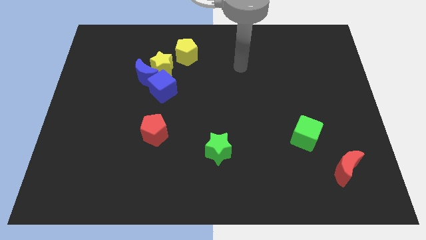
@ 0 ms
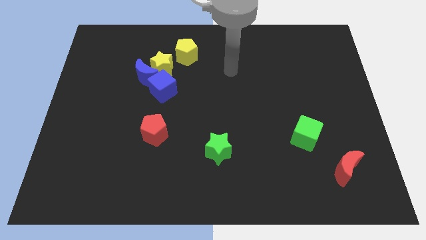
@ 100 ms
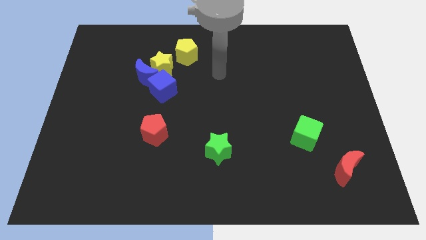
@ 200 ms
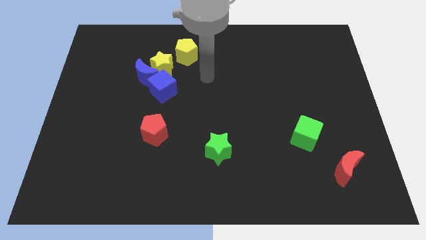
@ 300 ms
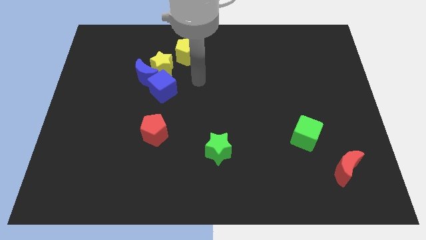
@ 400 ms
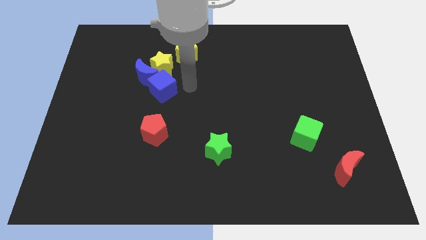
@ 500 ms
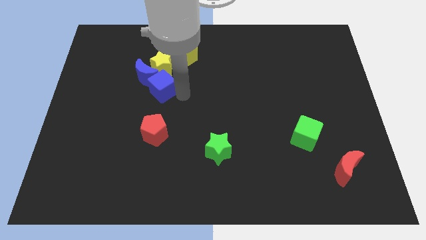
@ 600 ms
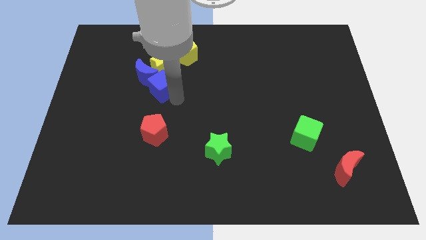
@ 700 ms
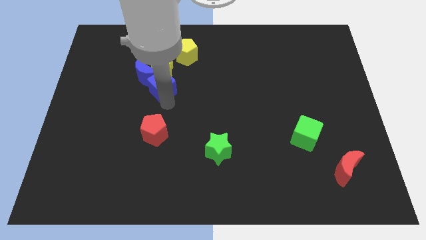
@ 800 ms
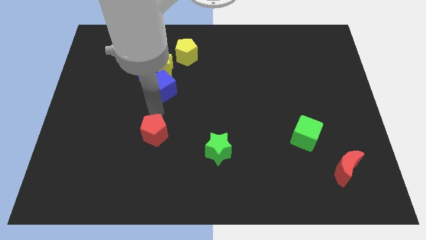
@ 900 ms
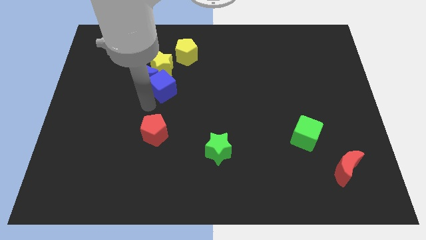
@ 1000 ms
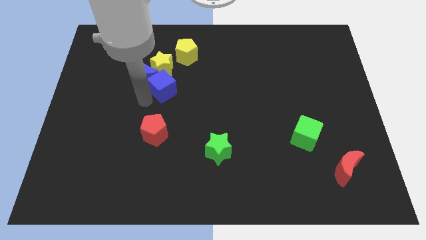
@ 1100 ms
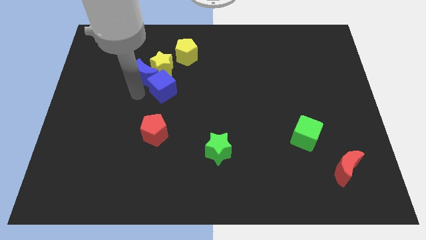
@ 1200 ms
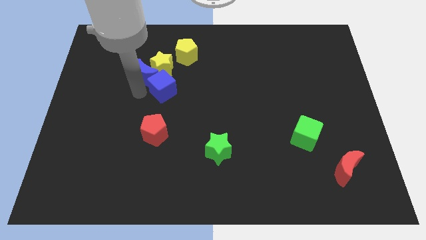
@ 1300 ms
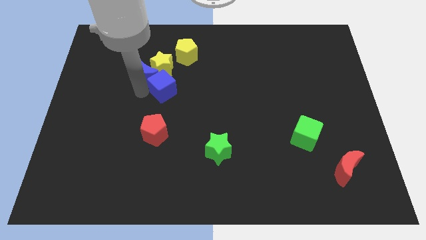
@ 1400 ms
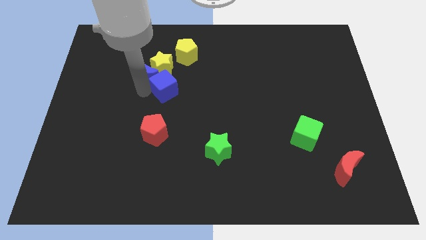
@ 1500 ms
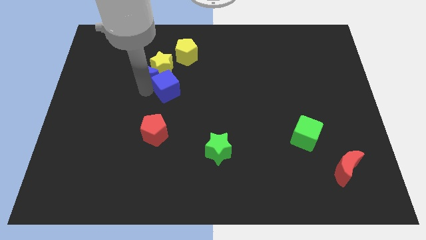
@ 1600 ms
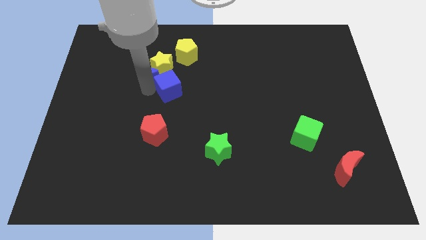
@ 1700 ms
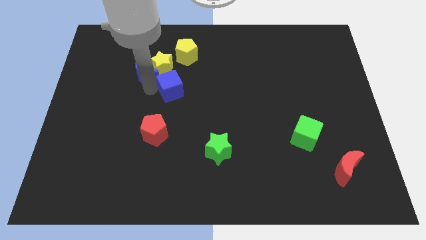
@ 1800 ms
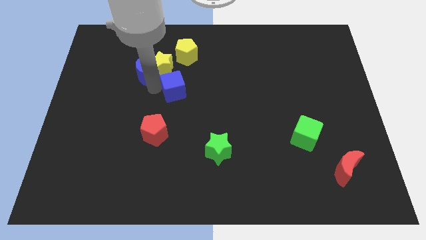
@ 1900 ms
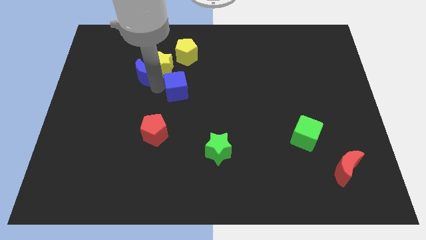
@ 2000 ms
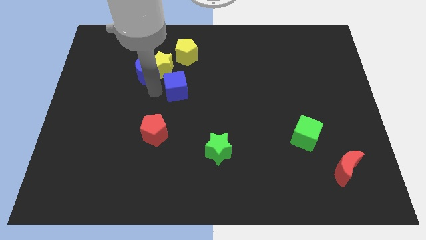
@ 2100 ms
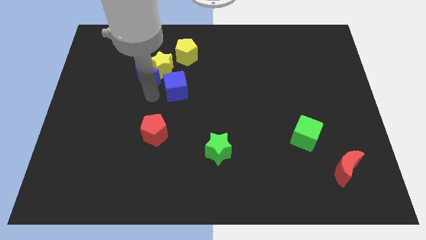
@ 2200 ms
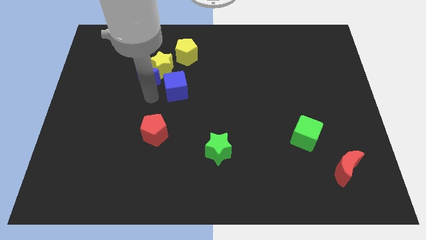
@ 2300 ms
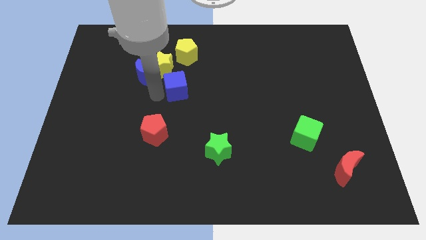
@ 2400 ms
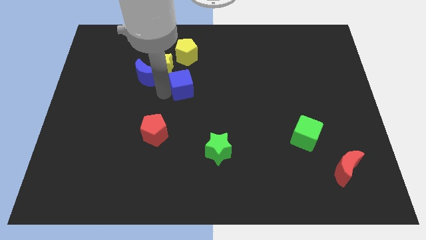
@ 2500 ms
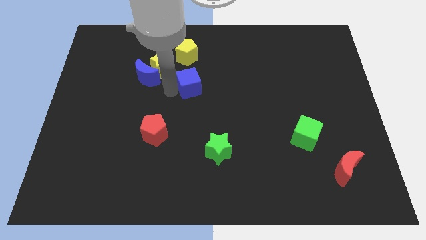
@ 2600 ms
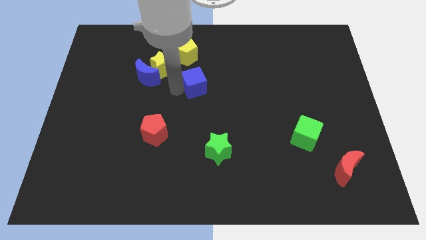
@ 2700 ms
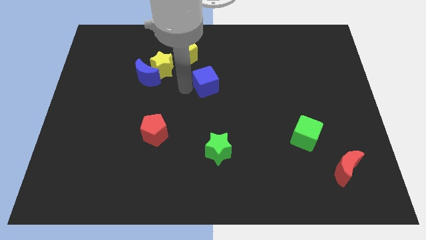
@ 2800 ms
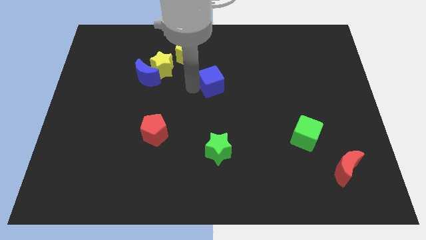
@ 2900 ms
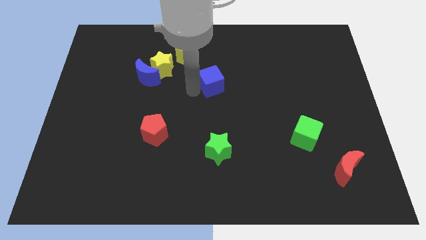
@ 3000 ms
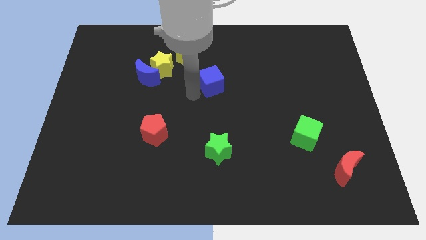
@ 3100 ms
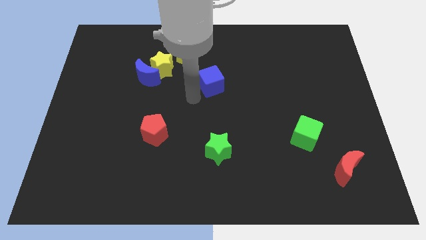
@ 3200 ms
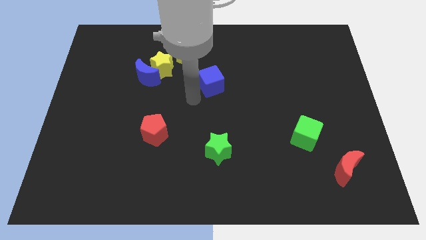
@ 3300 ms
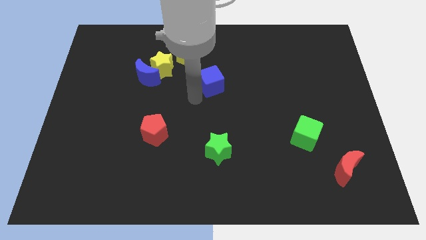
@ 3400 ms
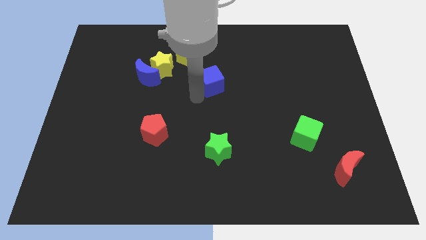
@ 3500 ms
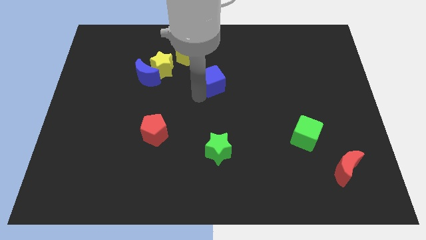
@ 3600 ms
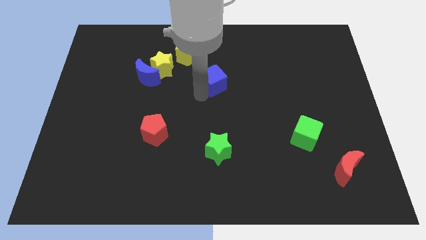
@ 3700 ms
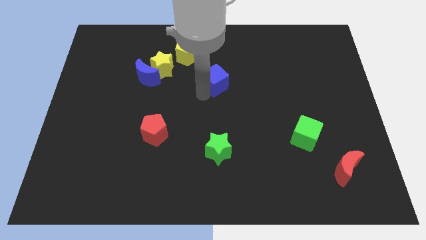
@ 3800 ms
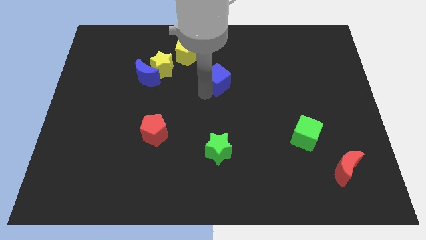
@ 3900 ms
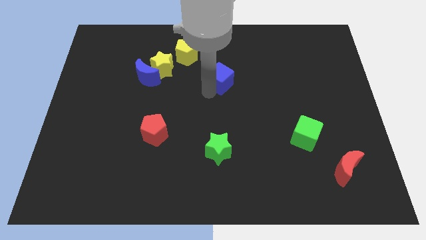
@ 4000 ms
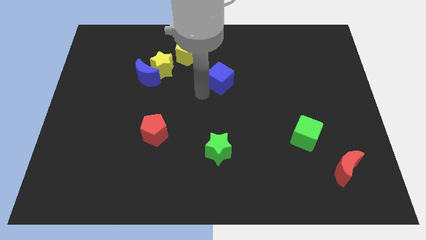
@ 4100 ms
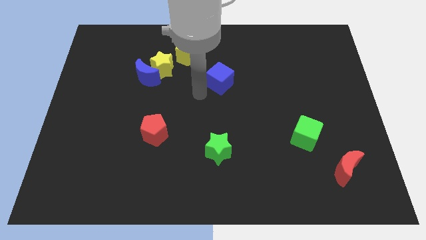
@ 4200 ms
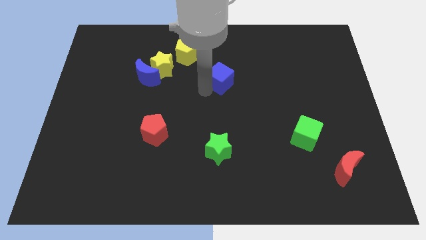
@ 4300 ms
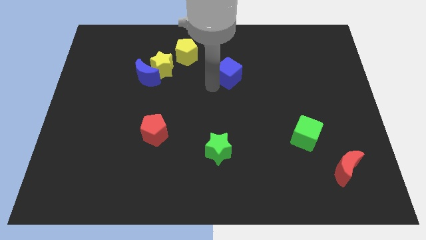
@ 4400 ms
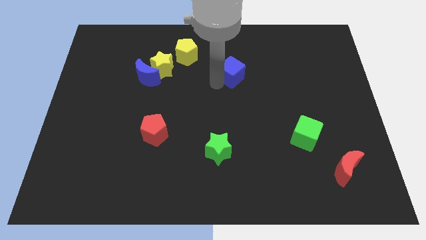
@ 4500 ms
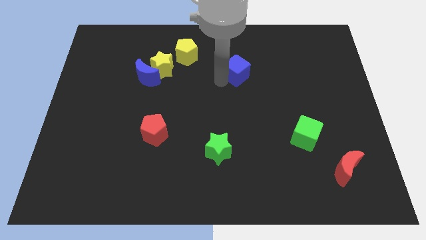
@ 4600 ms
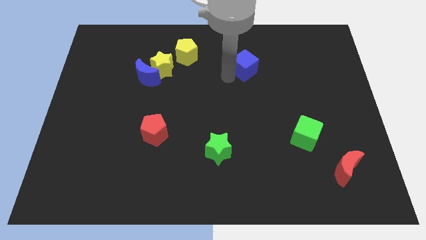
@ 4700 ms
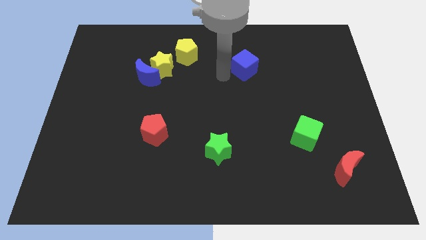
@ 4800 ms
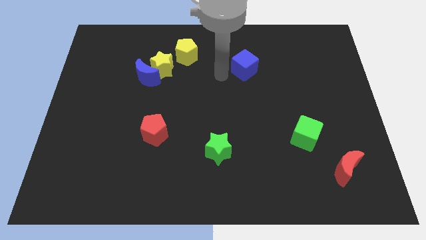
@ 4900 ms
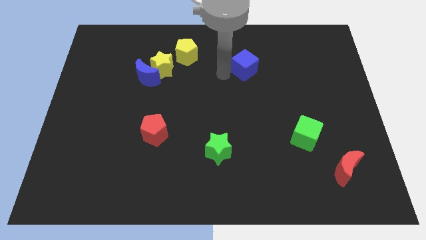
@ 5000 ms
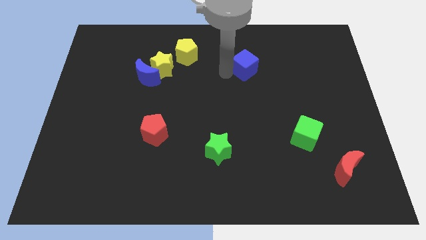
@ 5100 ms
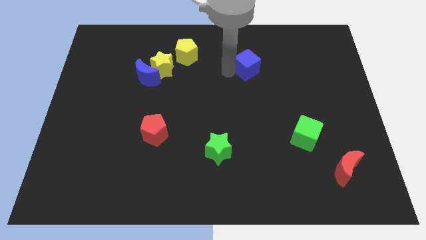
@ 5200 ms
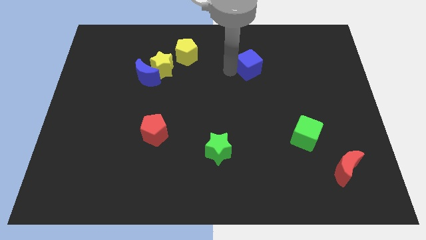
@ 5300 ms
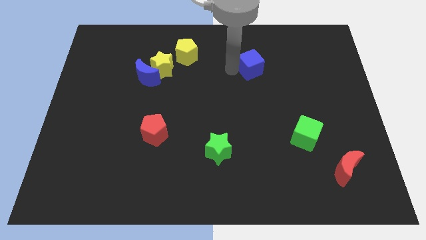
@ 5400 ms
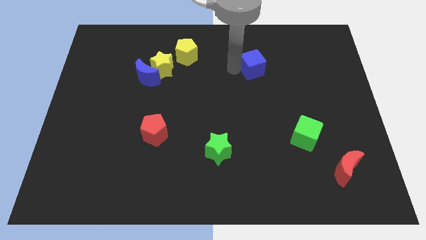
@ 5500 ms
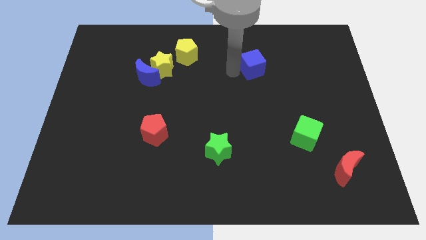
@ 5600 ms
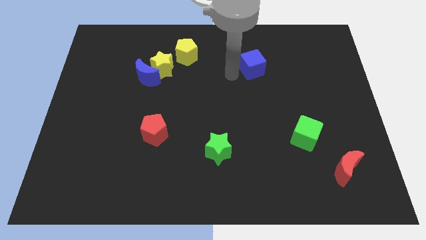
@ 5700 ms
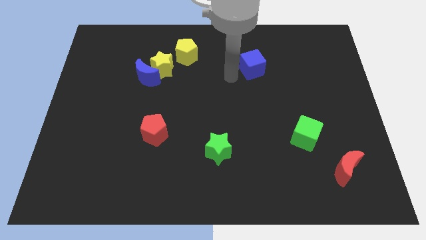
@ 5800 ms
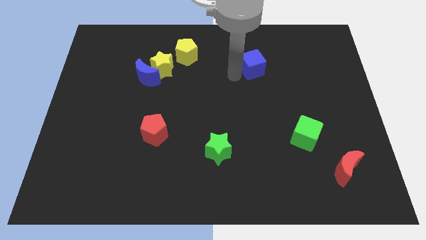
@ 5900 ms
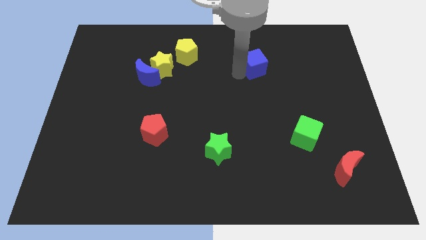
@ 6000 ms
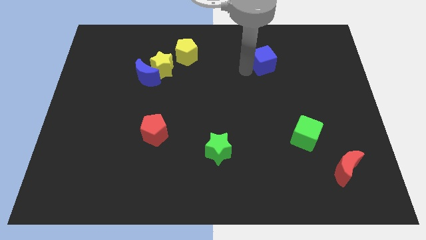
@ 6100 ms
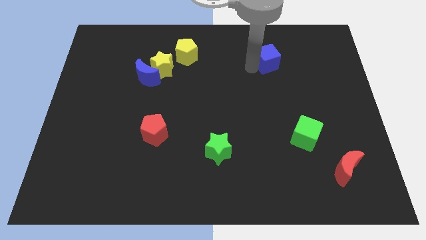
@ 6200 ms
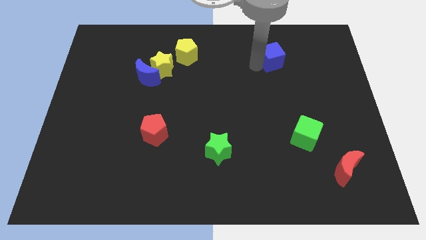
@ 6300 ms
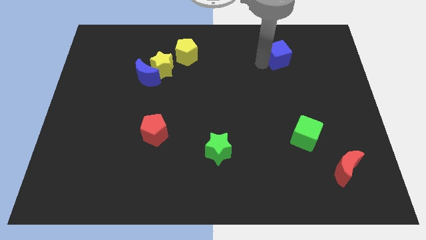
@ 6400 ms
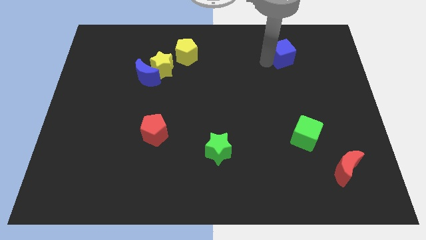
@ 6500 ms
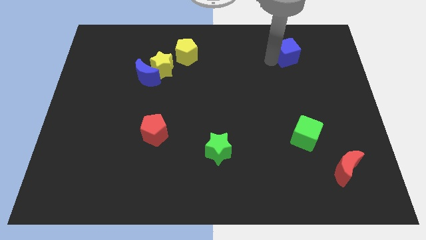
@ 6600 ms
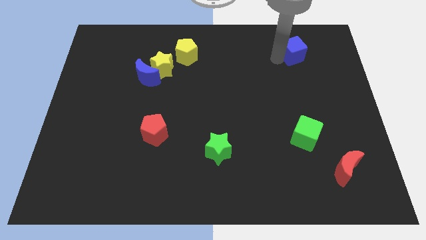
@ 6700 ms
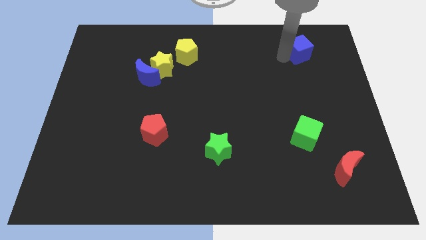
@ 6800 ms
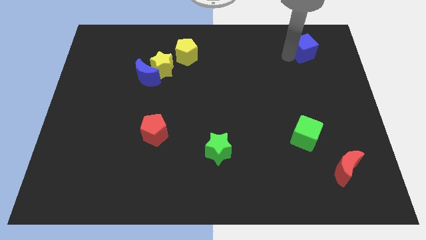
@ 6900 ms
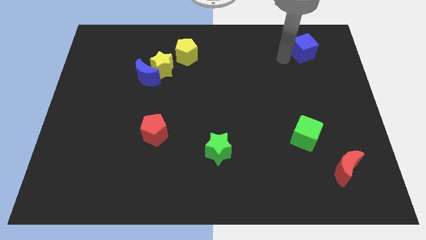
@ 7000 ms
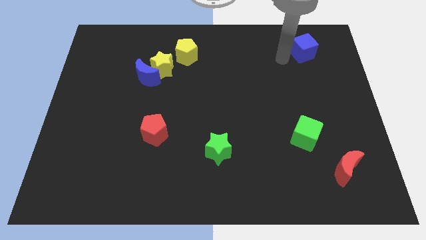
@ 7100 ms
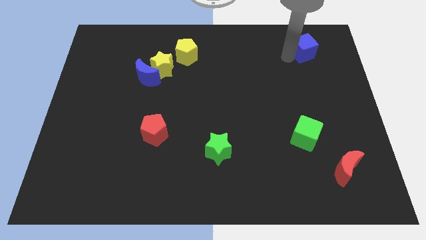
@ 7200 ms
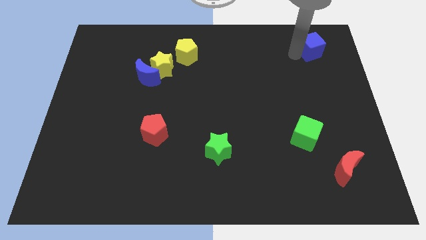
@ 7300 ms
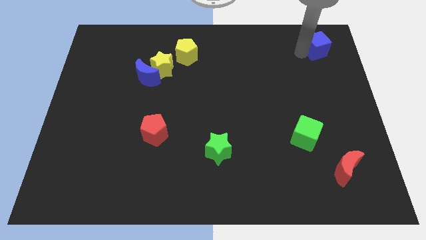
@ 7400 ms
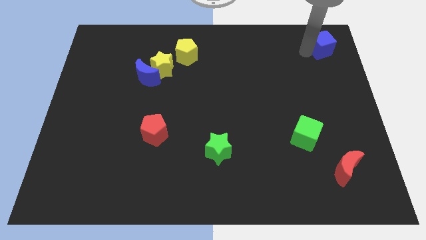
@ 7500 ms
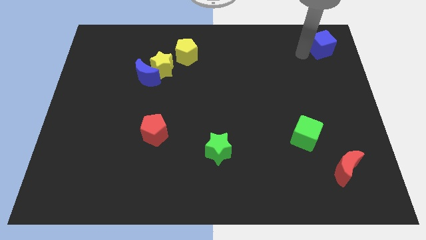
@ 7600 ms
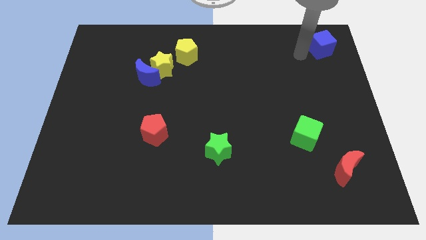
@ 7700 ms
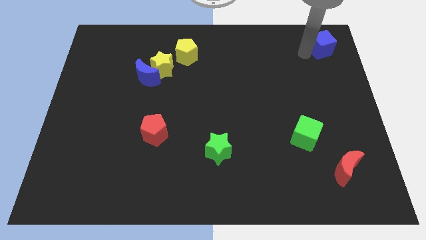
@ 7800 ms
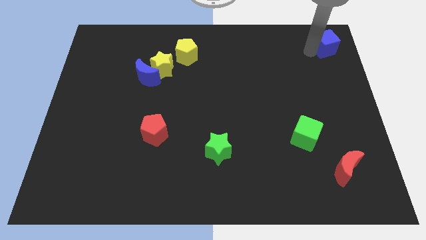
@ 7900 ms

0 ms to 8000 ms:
move the blue cube to the top right corner
